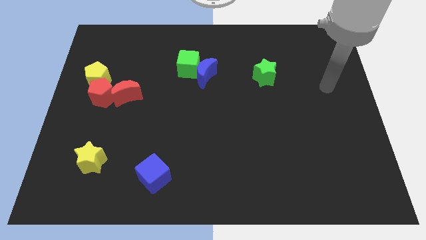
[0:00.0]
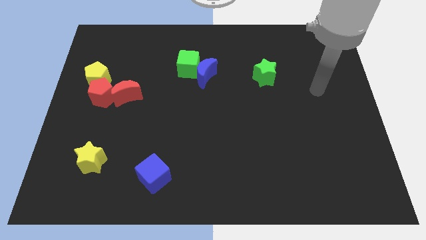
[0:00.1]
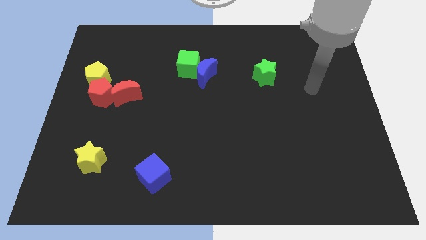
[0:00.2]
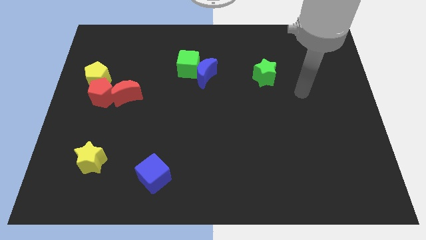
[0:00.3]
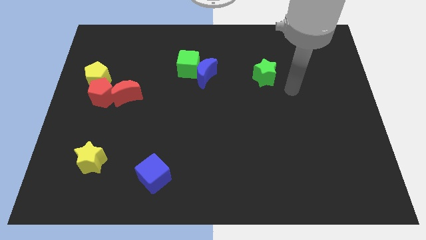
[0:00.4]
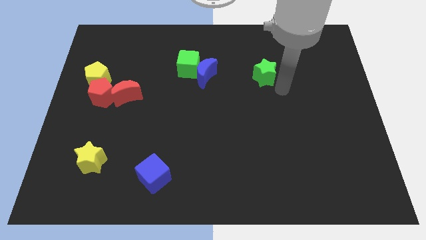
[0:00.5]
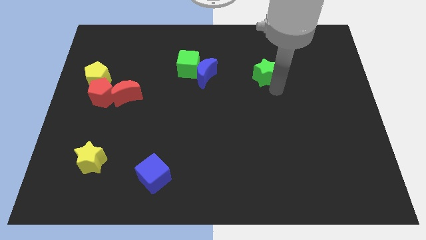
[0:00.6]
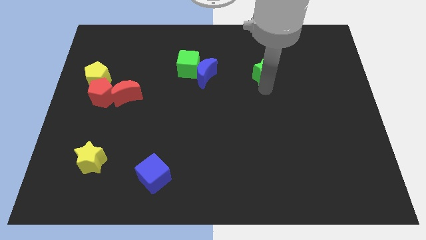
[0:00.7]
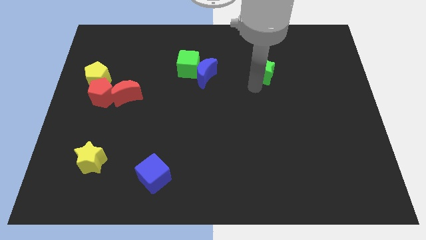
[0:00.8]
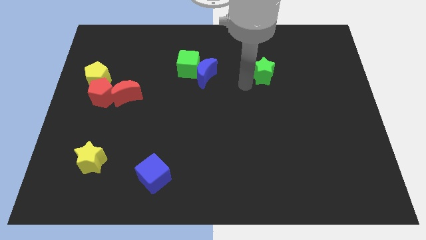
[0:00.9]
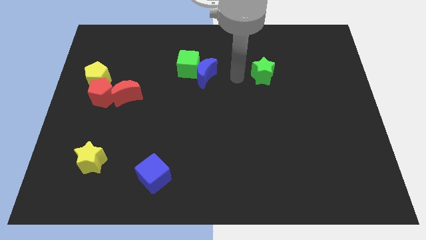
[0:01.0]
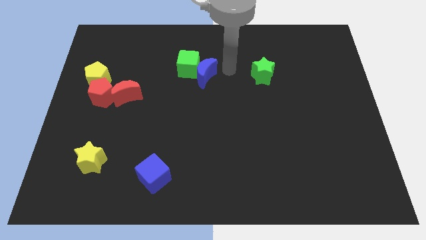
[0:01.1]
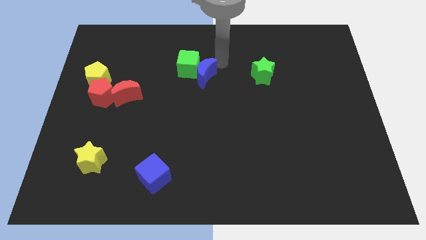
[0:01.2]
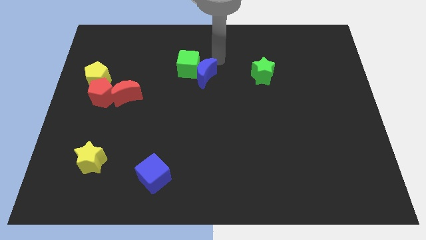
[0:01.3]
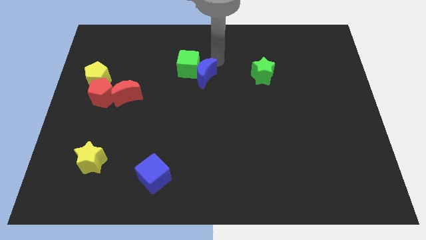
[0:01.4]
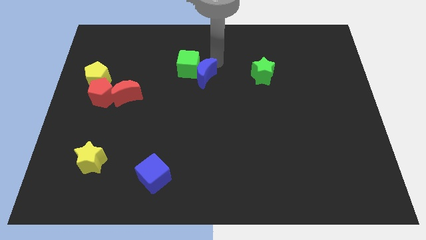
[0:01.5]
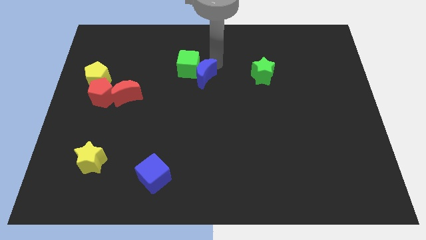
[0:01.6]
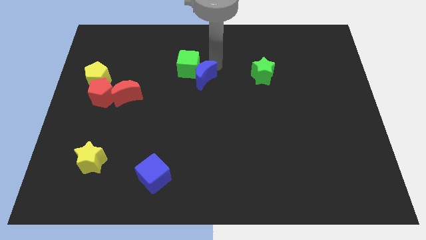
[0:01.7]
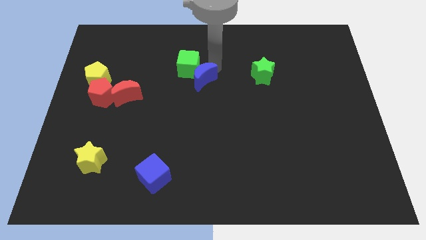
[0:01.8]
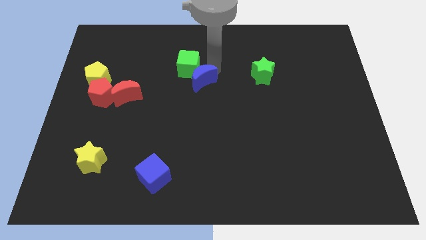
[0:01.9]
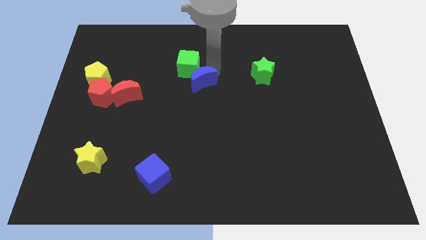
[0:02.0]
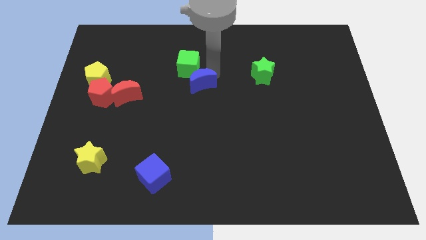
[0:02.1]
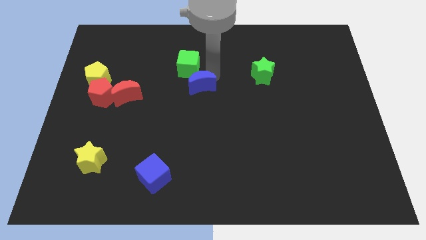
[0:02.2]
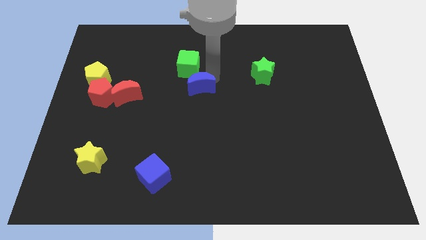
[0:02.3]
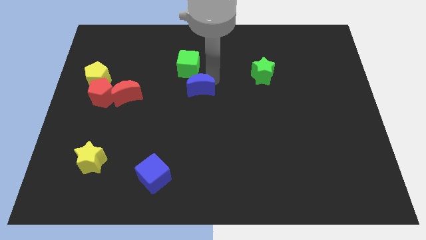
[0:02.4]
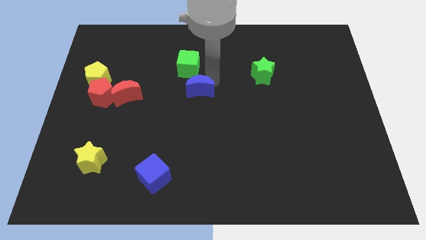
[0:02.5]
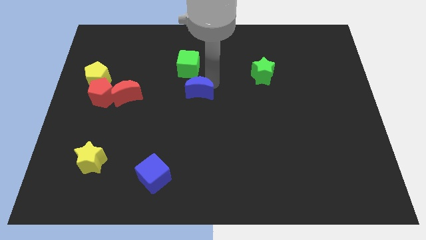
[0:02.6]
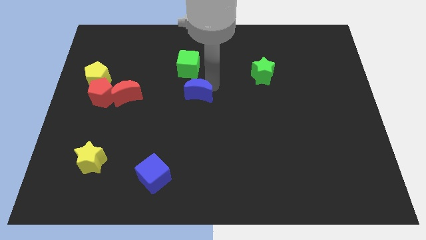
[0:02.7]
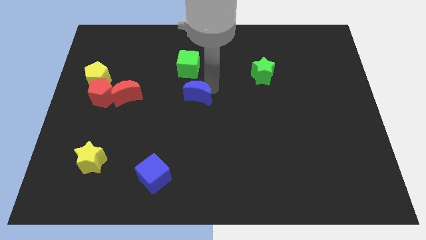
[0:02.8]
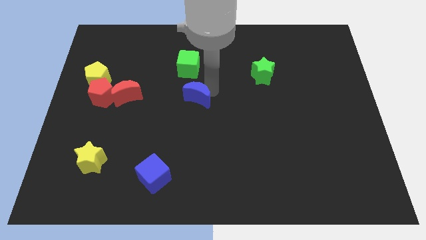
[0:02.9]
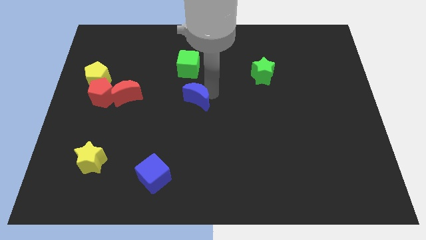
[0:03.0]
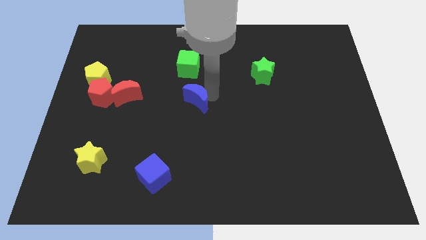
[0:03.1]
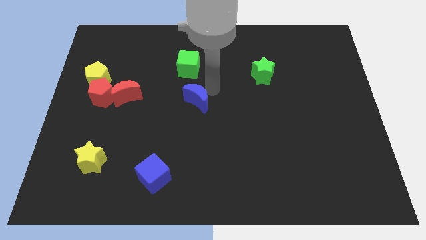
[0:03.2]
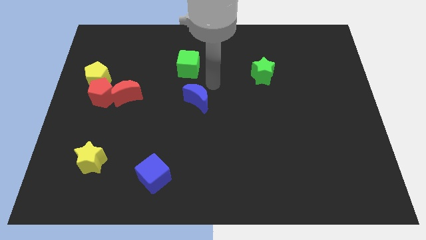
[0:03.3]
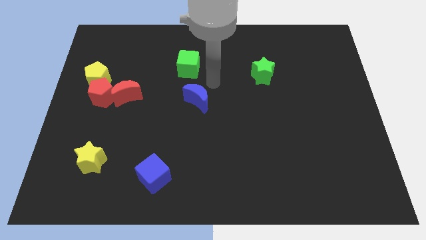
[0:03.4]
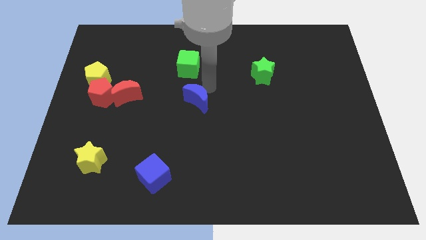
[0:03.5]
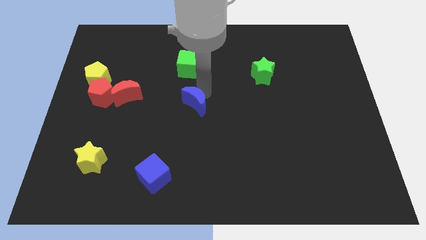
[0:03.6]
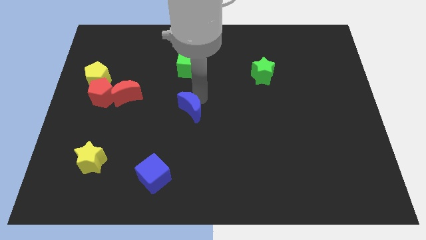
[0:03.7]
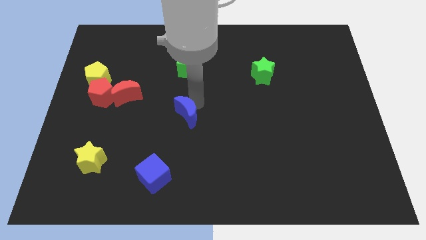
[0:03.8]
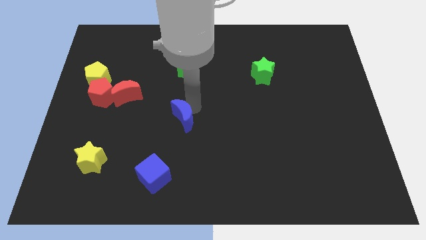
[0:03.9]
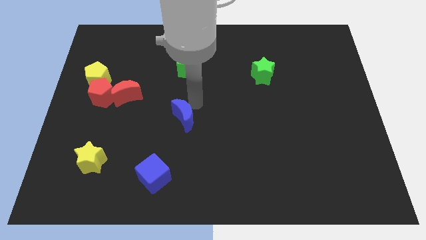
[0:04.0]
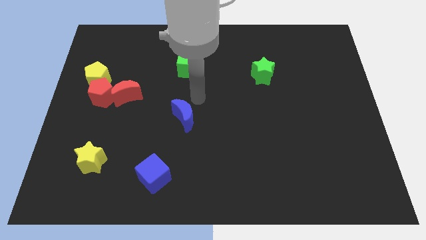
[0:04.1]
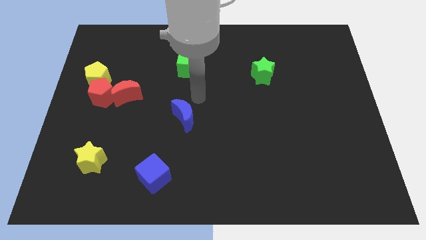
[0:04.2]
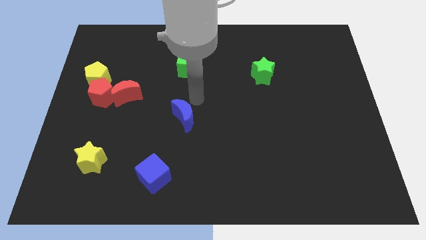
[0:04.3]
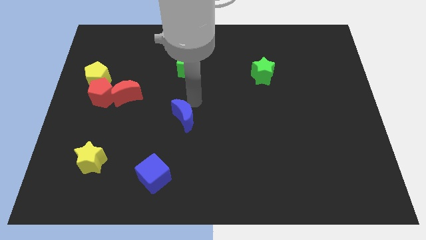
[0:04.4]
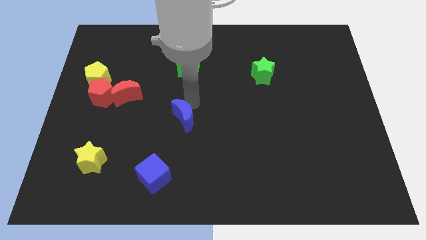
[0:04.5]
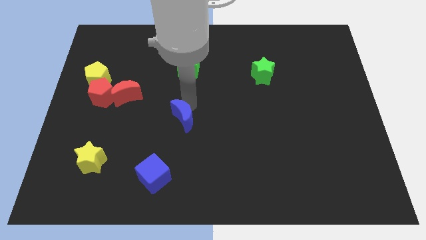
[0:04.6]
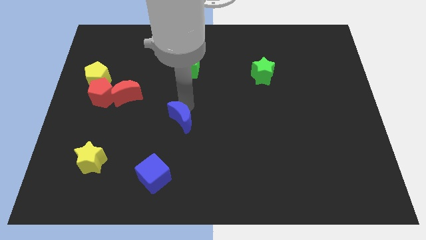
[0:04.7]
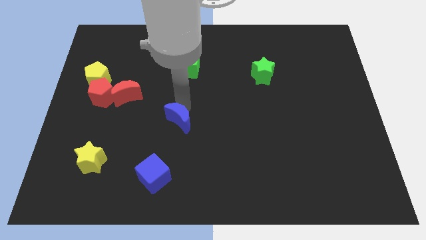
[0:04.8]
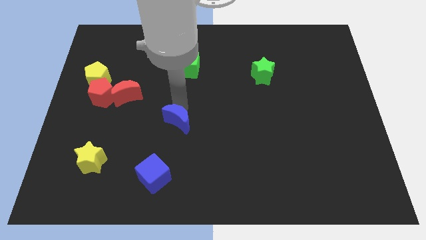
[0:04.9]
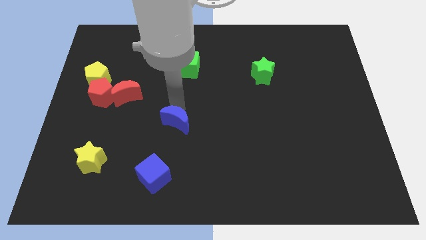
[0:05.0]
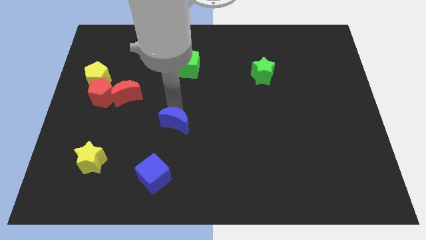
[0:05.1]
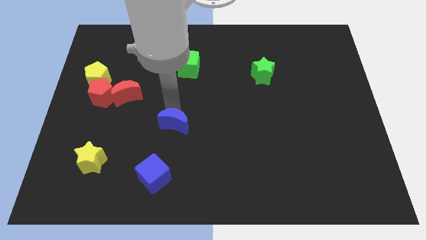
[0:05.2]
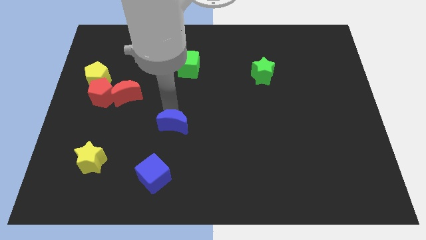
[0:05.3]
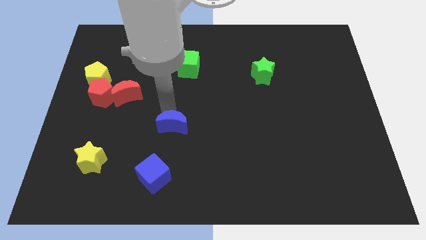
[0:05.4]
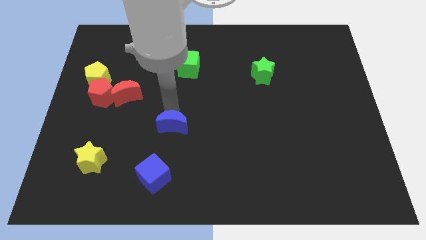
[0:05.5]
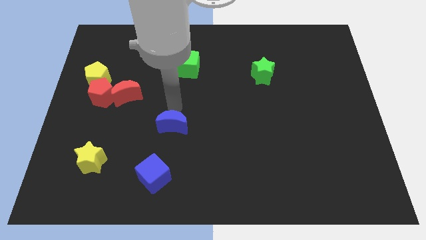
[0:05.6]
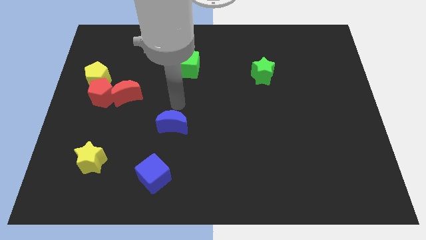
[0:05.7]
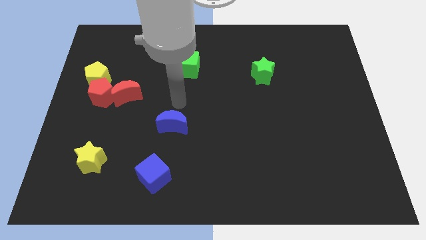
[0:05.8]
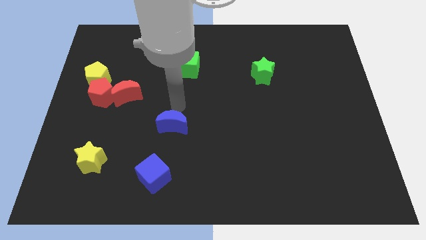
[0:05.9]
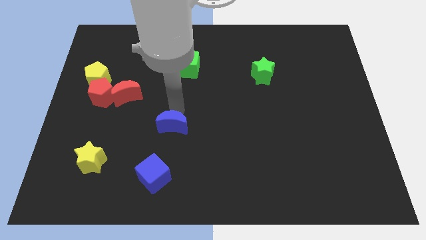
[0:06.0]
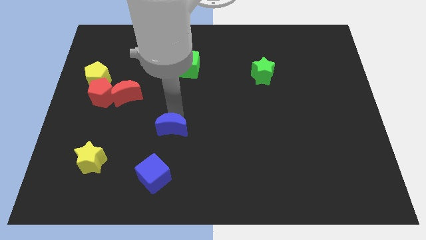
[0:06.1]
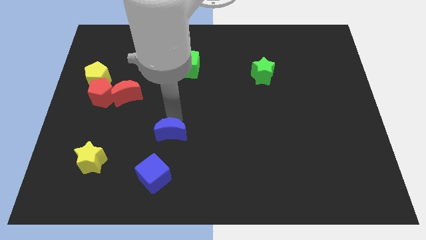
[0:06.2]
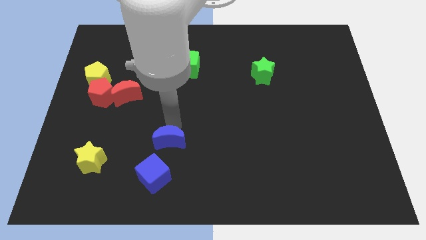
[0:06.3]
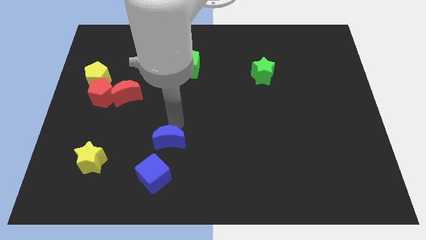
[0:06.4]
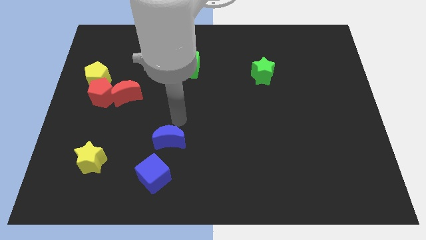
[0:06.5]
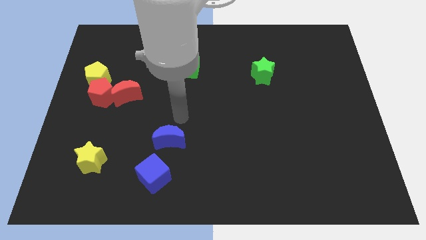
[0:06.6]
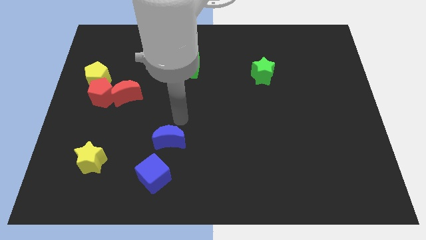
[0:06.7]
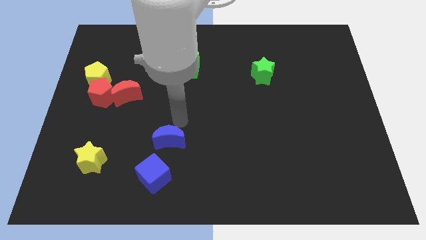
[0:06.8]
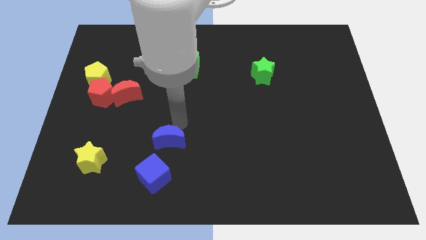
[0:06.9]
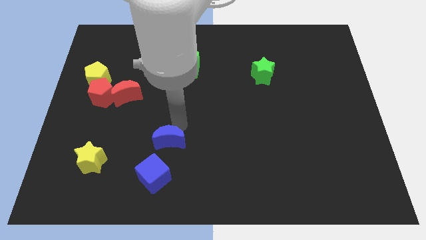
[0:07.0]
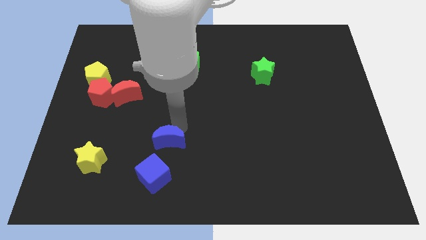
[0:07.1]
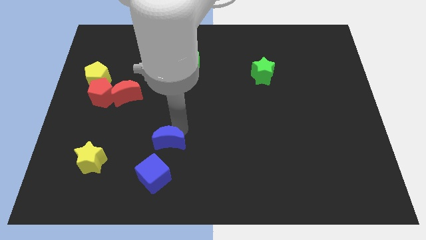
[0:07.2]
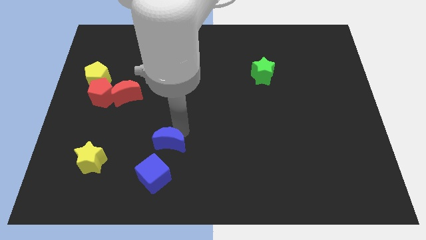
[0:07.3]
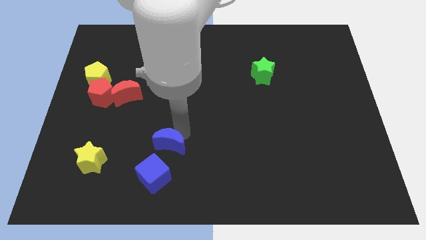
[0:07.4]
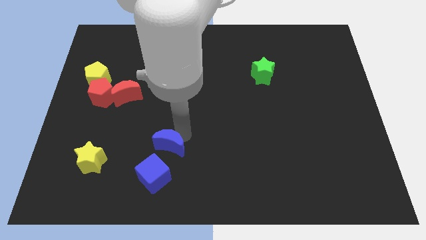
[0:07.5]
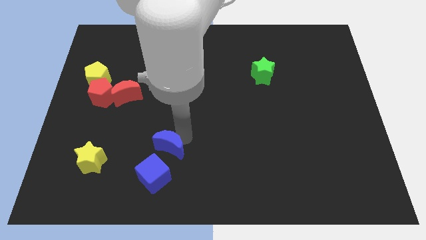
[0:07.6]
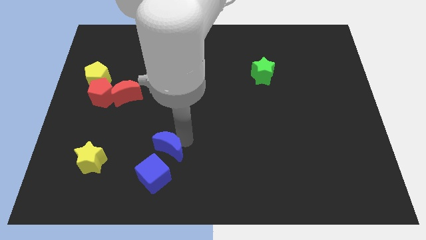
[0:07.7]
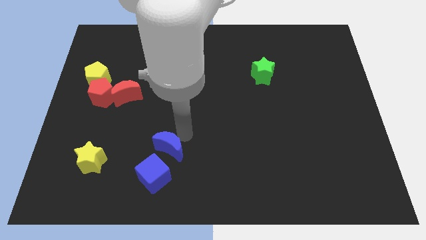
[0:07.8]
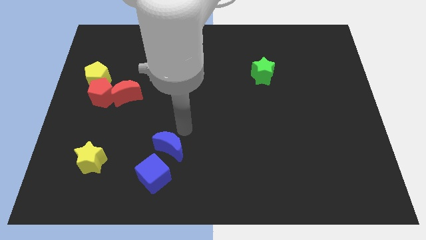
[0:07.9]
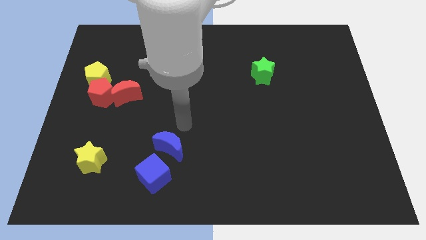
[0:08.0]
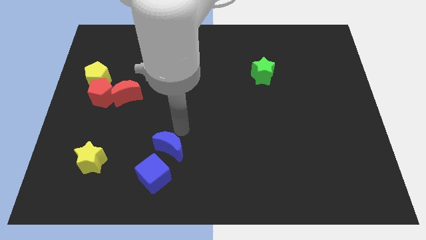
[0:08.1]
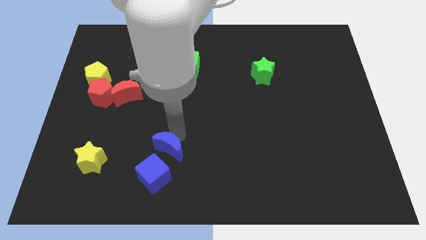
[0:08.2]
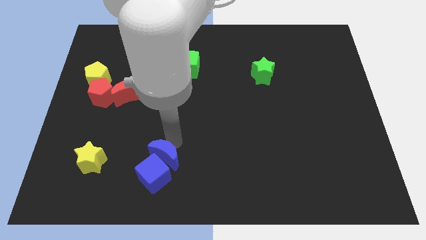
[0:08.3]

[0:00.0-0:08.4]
move the blue moon close to the blue cube
